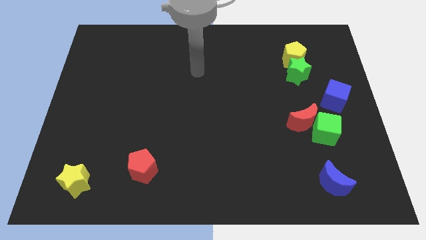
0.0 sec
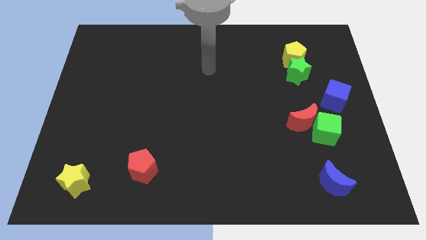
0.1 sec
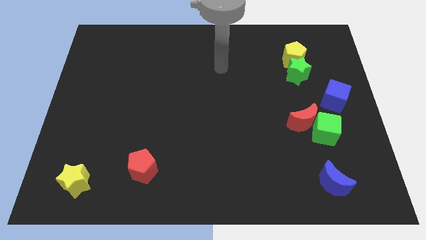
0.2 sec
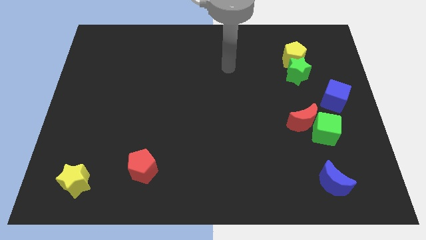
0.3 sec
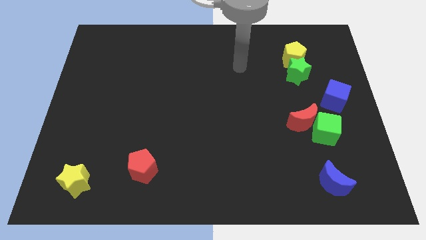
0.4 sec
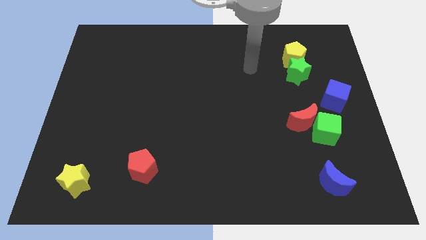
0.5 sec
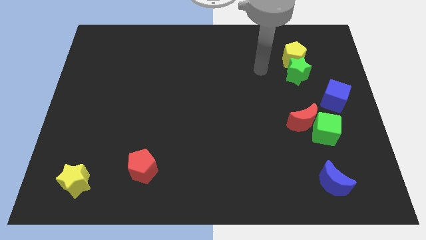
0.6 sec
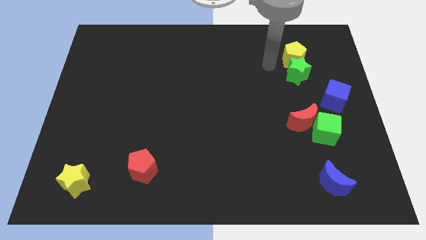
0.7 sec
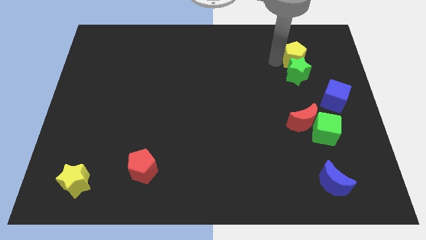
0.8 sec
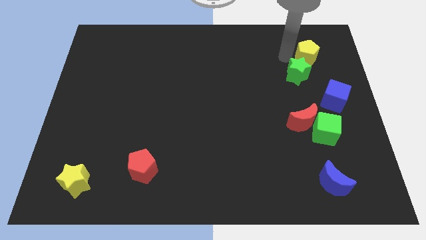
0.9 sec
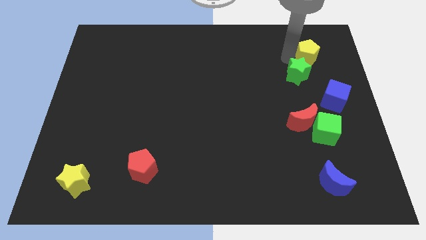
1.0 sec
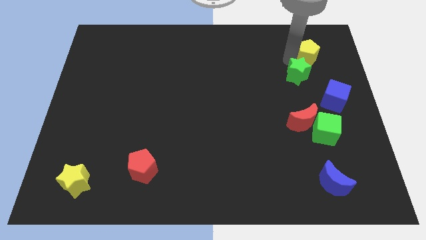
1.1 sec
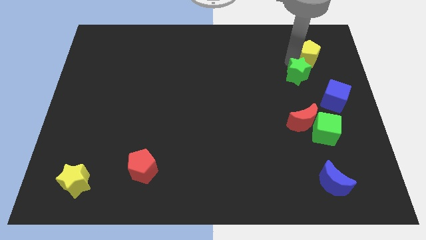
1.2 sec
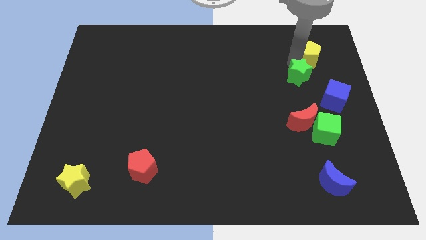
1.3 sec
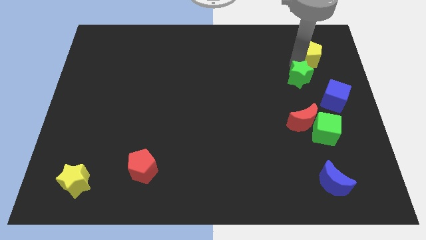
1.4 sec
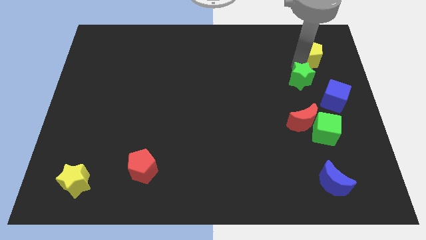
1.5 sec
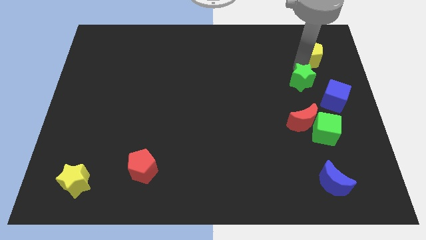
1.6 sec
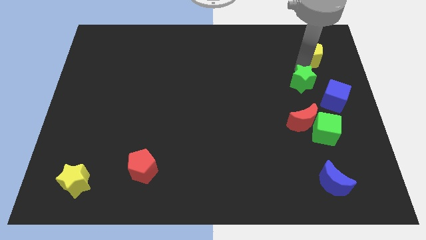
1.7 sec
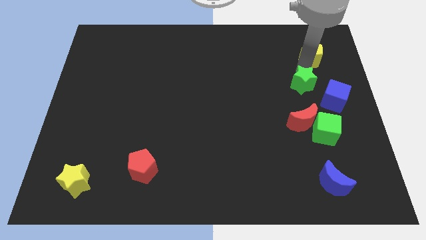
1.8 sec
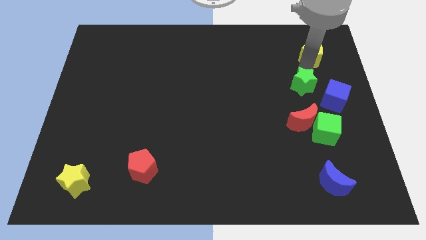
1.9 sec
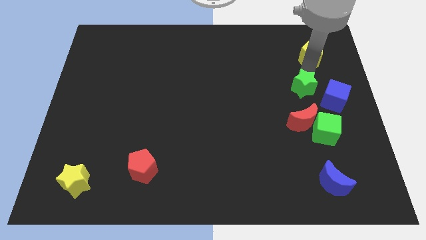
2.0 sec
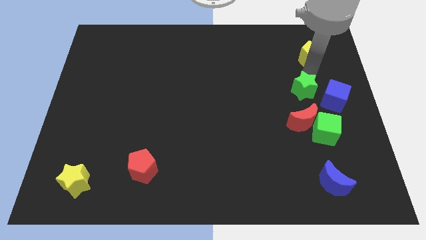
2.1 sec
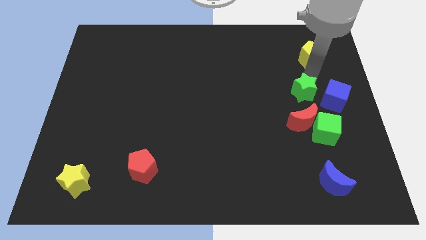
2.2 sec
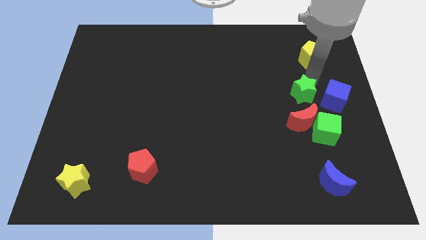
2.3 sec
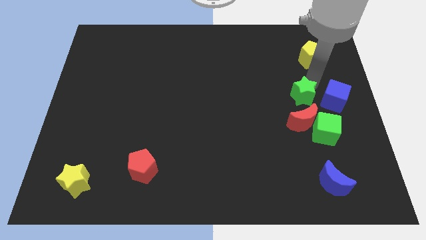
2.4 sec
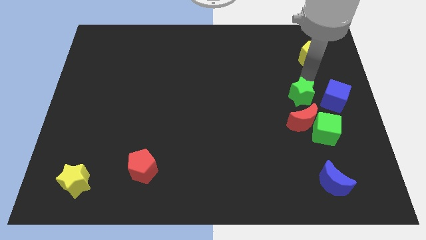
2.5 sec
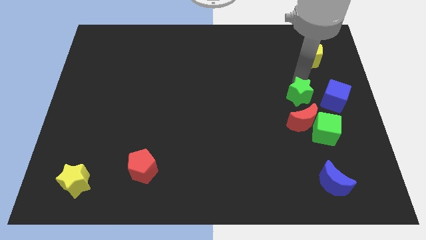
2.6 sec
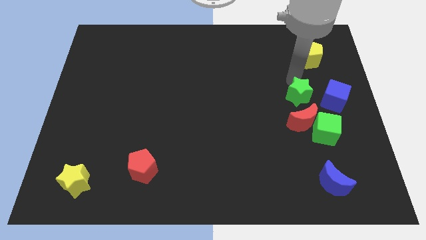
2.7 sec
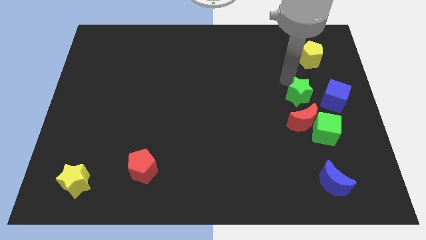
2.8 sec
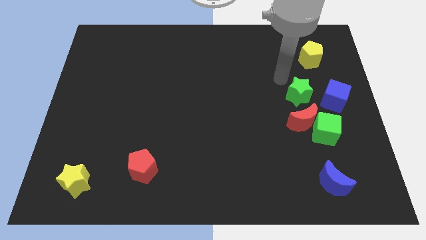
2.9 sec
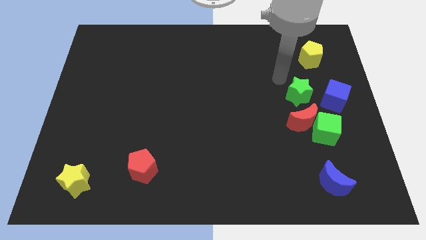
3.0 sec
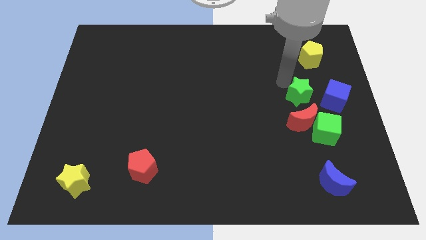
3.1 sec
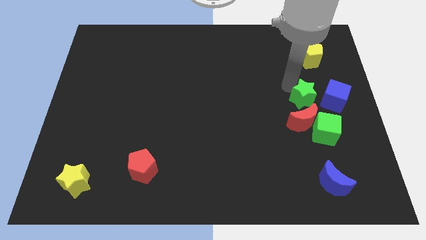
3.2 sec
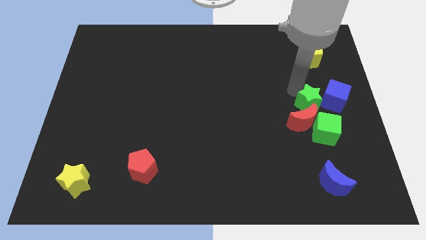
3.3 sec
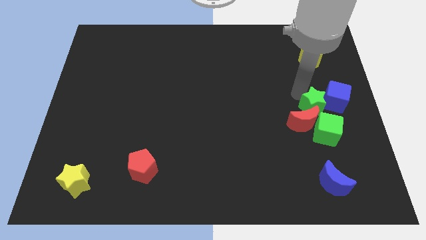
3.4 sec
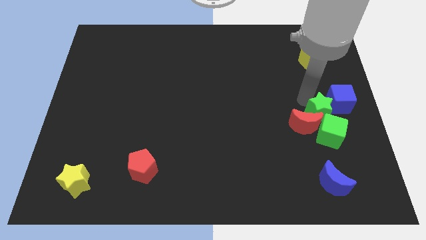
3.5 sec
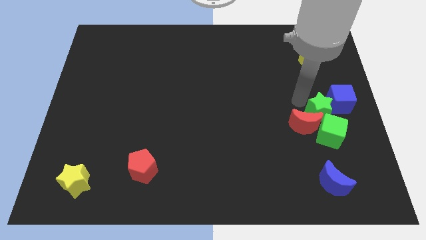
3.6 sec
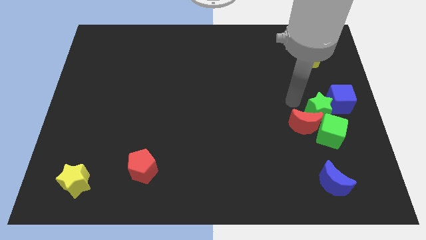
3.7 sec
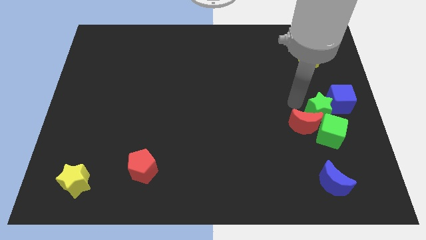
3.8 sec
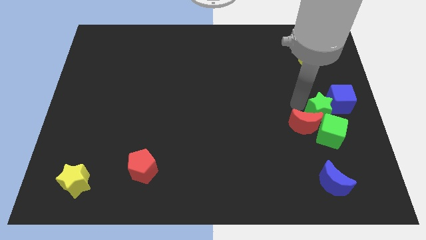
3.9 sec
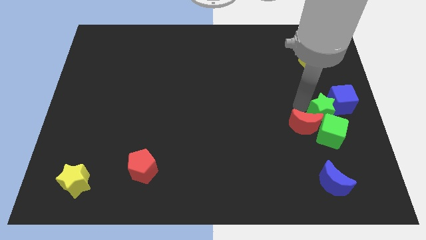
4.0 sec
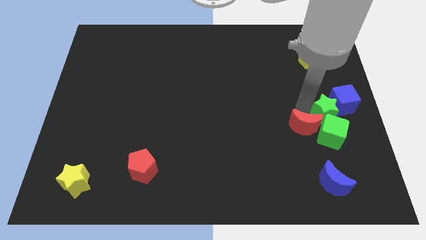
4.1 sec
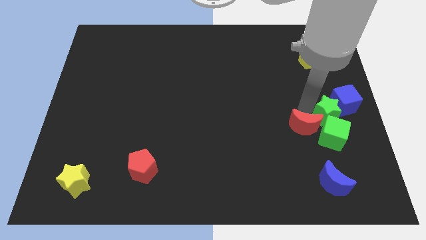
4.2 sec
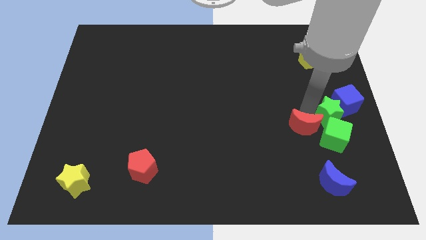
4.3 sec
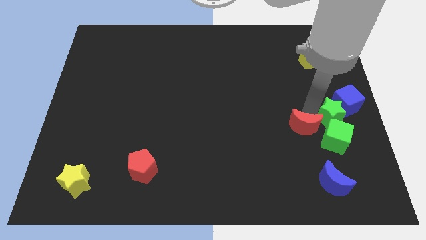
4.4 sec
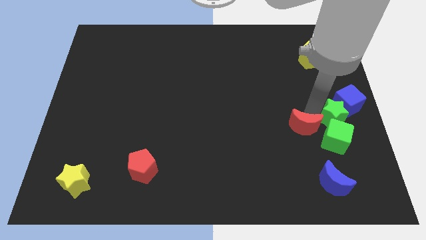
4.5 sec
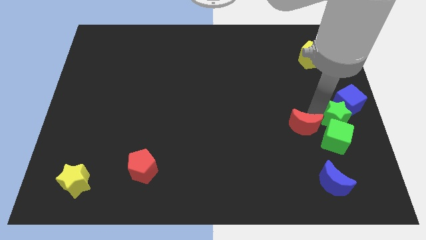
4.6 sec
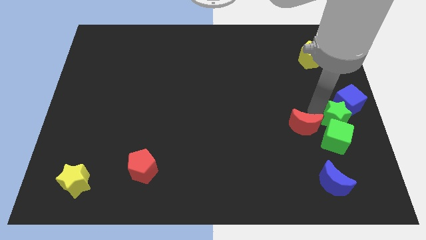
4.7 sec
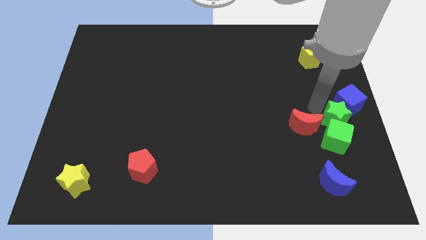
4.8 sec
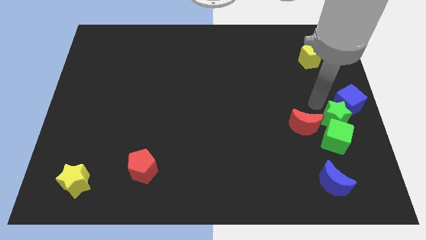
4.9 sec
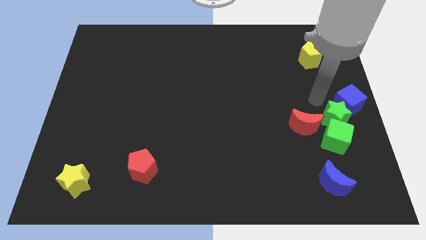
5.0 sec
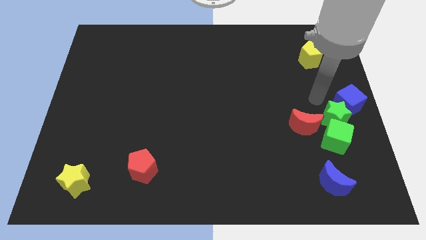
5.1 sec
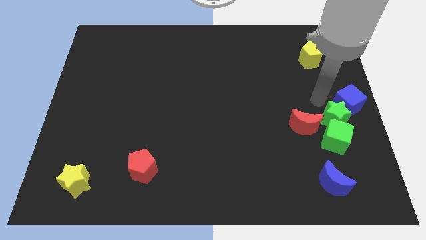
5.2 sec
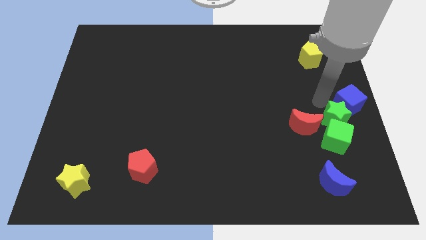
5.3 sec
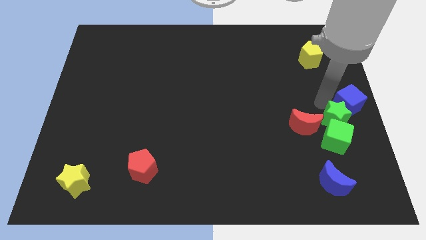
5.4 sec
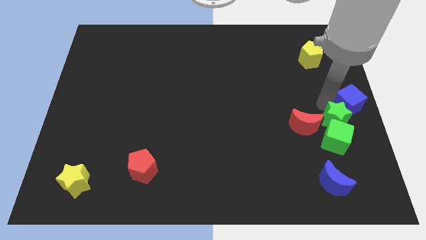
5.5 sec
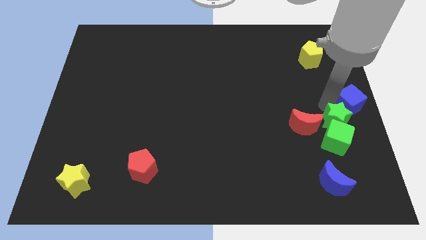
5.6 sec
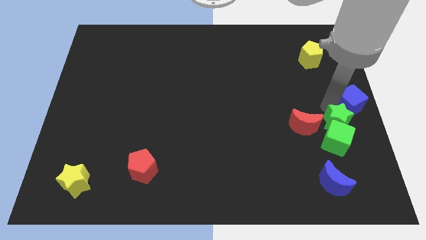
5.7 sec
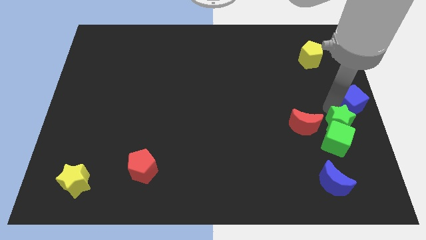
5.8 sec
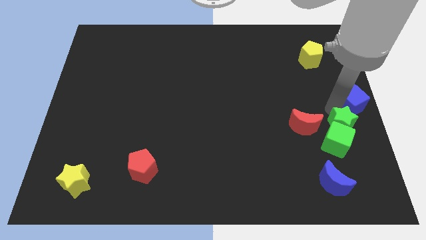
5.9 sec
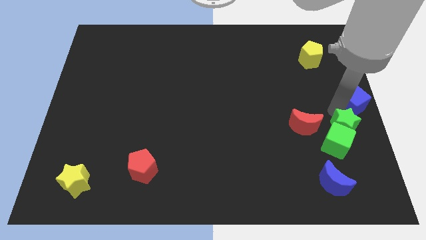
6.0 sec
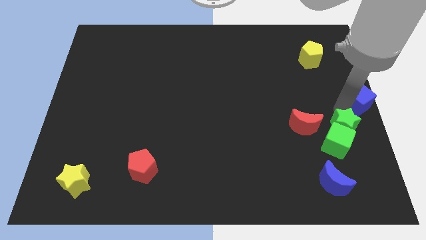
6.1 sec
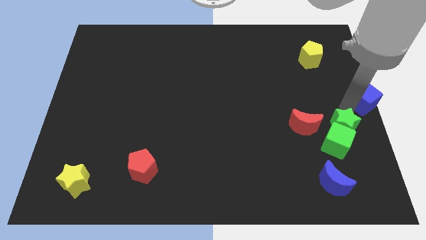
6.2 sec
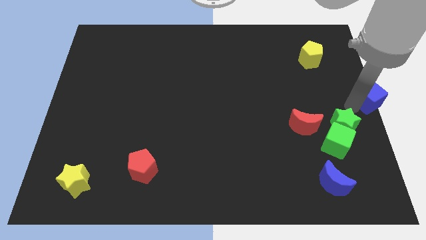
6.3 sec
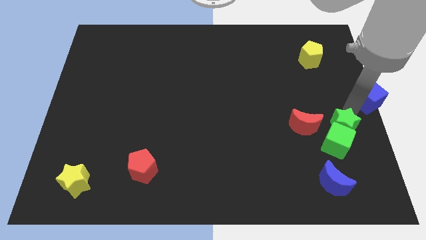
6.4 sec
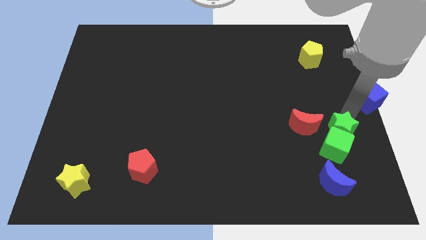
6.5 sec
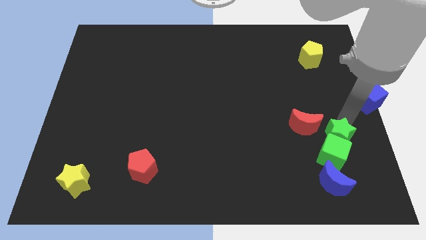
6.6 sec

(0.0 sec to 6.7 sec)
move the green star to the bottom right of the red moon

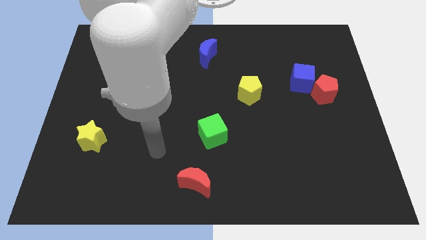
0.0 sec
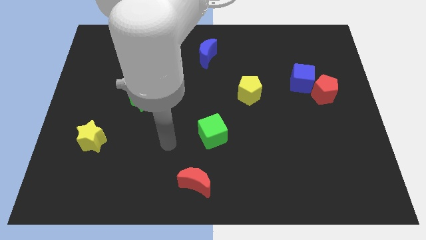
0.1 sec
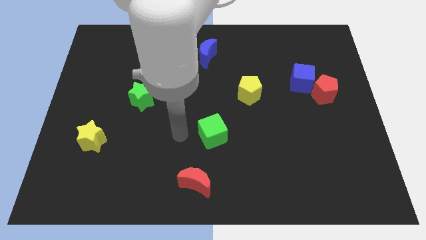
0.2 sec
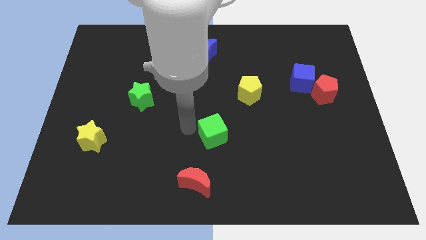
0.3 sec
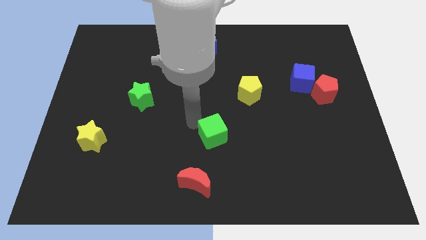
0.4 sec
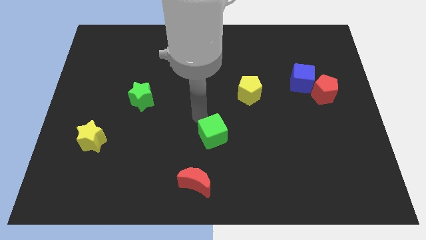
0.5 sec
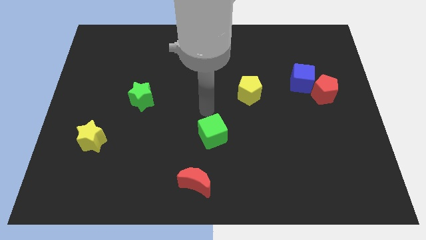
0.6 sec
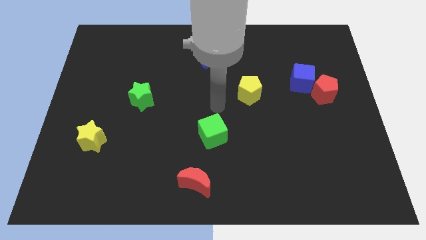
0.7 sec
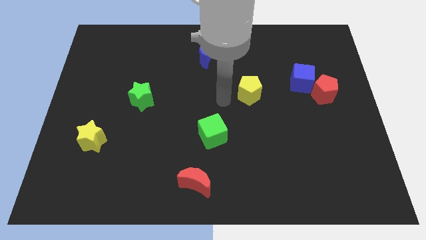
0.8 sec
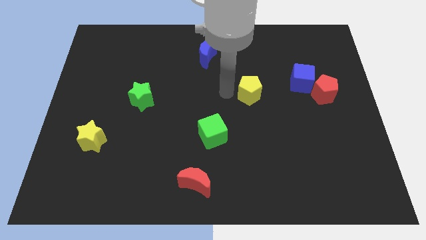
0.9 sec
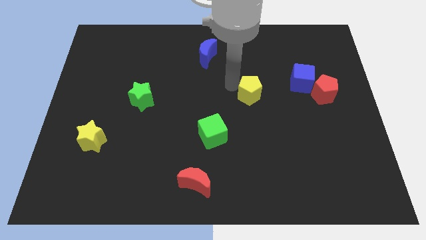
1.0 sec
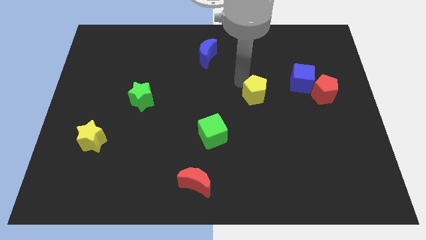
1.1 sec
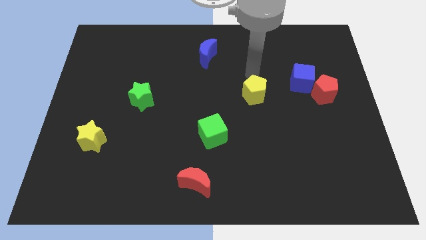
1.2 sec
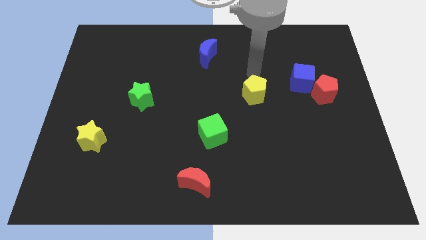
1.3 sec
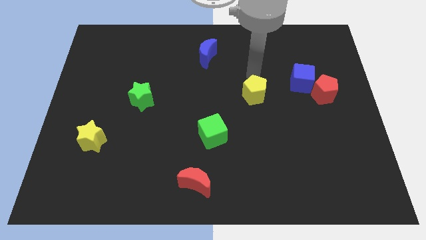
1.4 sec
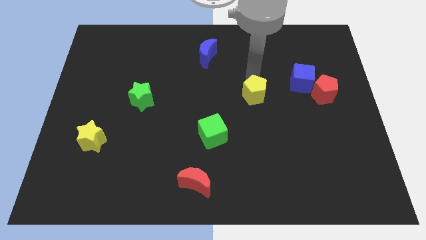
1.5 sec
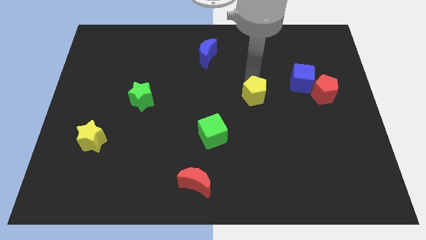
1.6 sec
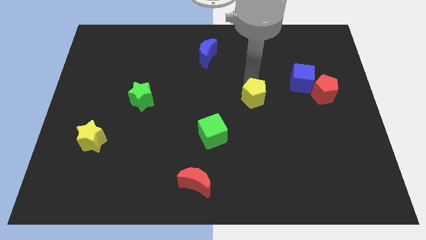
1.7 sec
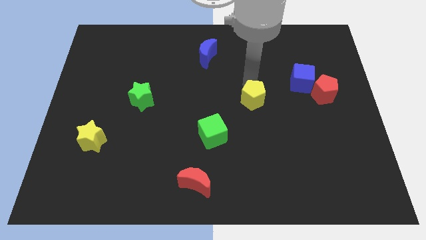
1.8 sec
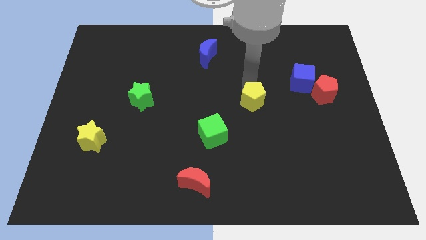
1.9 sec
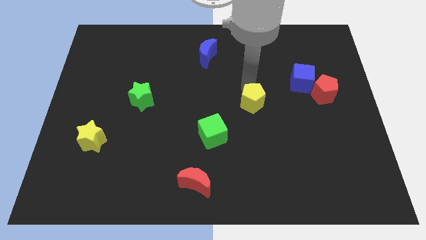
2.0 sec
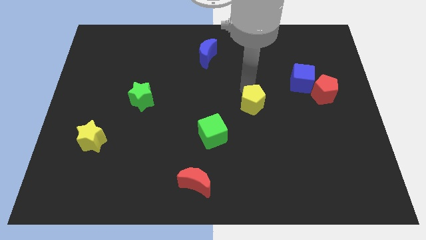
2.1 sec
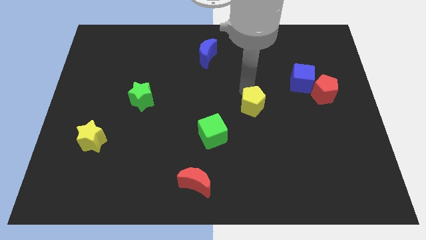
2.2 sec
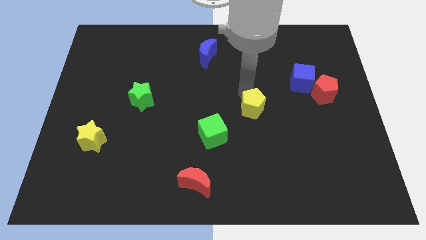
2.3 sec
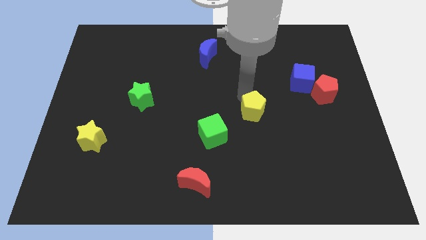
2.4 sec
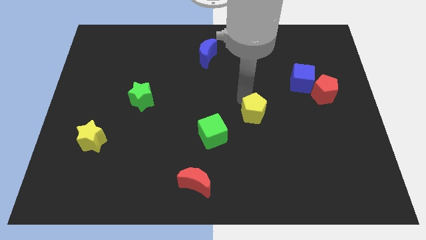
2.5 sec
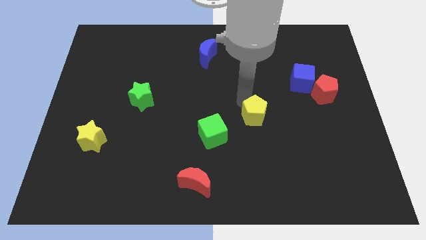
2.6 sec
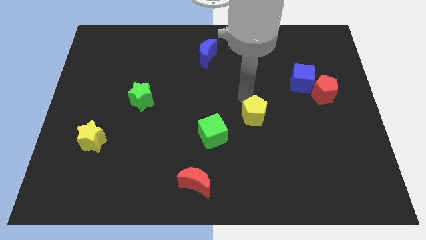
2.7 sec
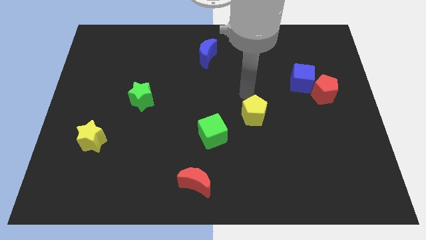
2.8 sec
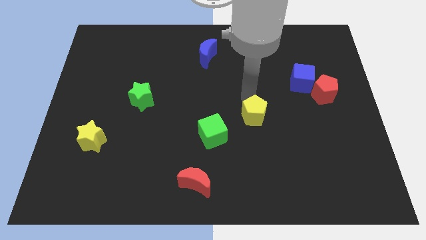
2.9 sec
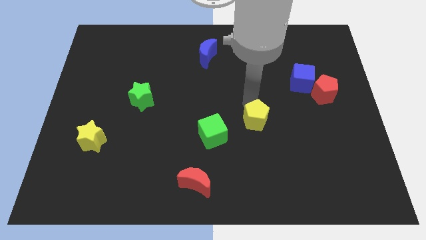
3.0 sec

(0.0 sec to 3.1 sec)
push the yellow pentagon right of the green cube
